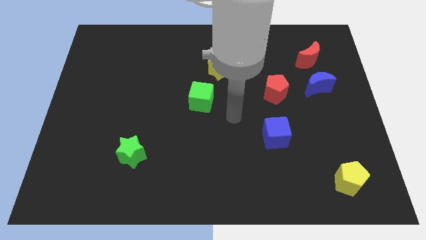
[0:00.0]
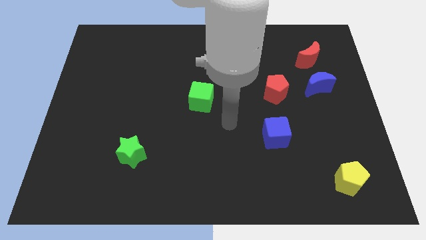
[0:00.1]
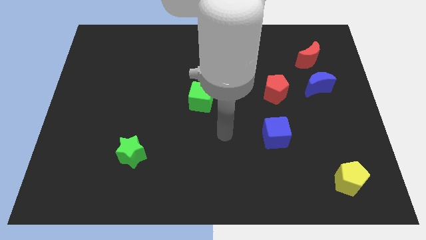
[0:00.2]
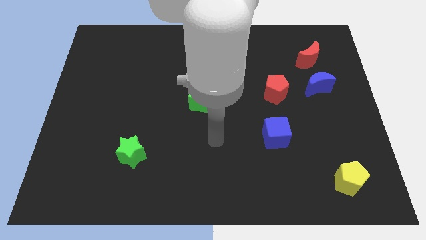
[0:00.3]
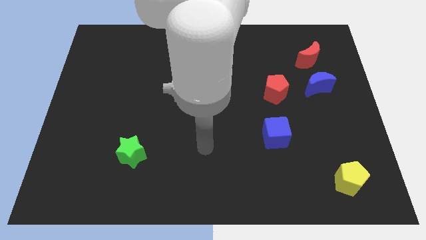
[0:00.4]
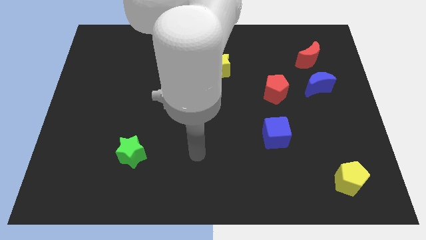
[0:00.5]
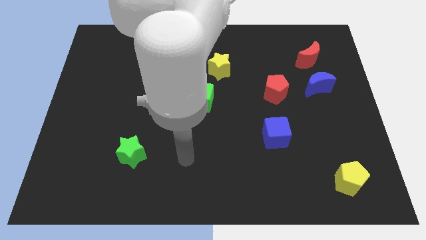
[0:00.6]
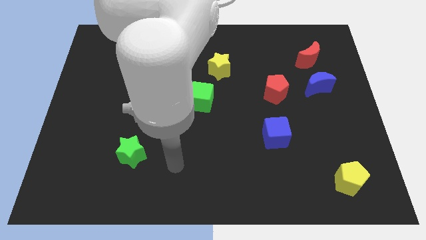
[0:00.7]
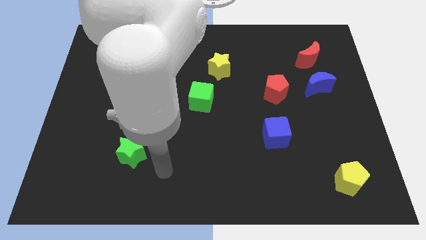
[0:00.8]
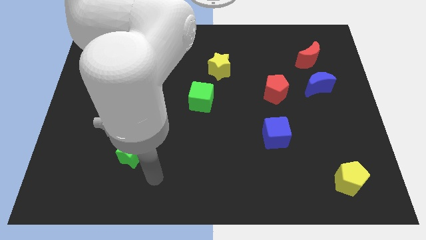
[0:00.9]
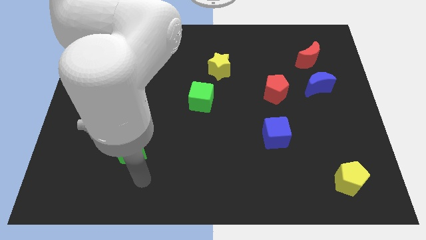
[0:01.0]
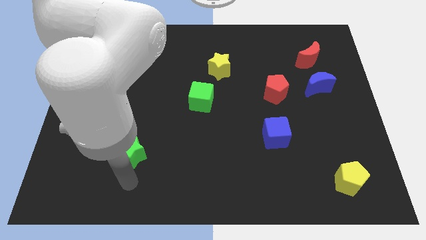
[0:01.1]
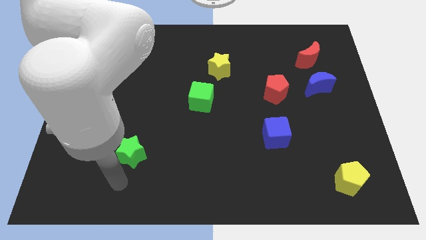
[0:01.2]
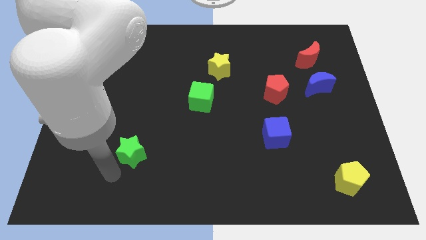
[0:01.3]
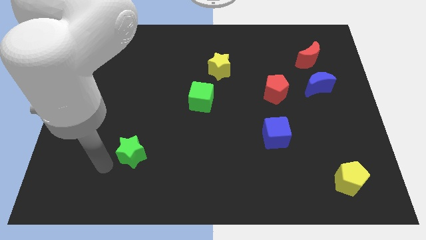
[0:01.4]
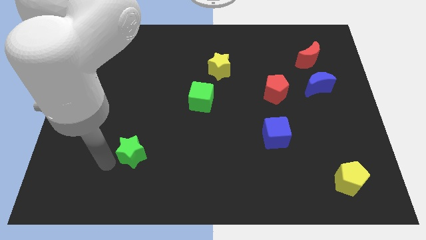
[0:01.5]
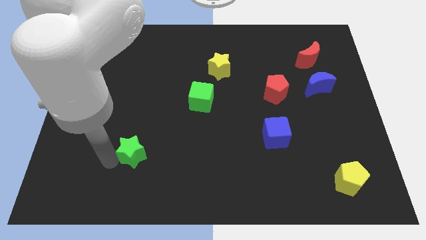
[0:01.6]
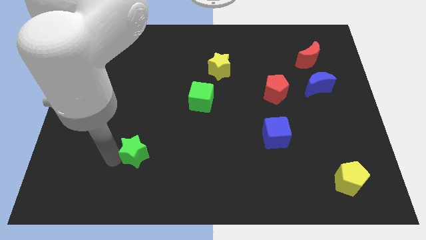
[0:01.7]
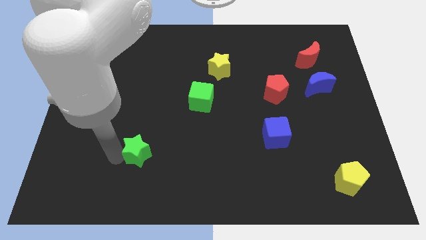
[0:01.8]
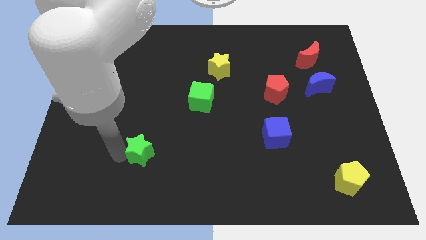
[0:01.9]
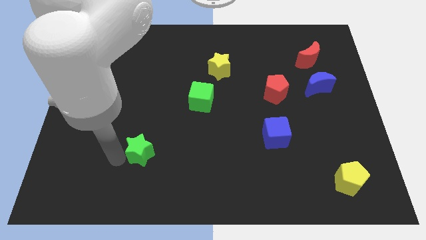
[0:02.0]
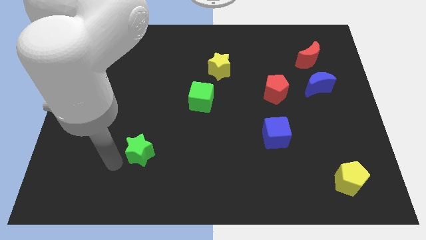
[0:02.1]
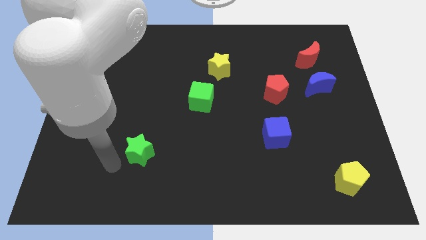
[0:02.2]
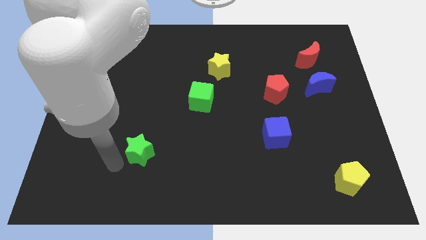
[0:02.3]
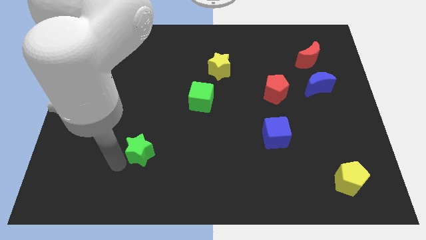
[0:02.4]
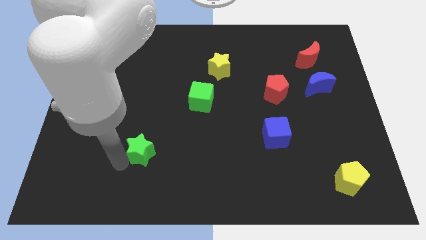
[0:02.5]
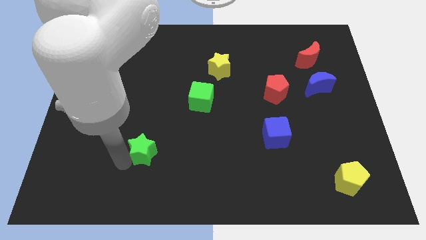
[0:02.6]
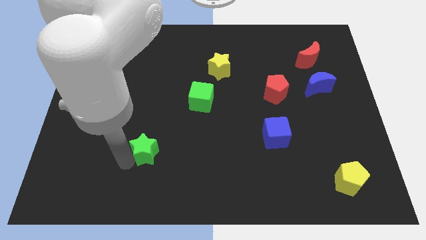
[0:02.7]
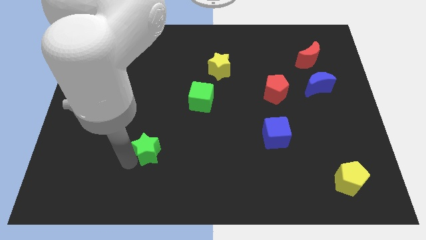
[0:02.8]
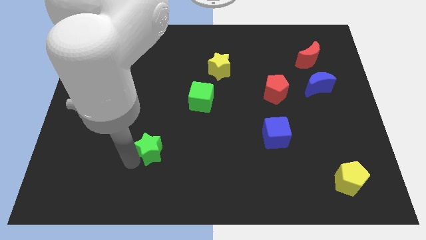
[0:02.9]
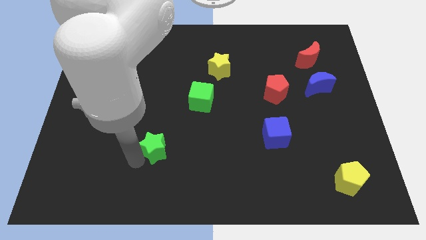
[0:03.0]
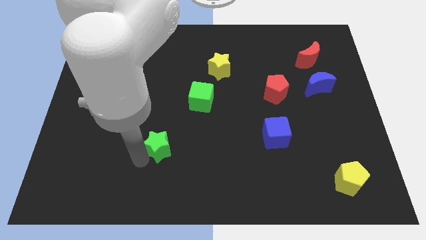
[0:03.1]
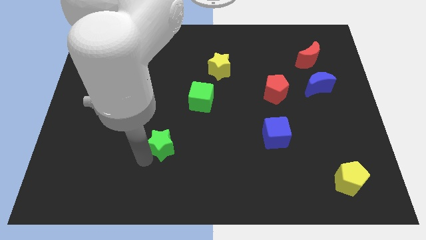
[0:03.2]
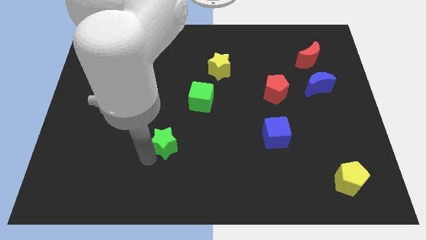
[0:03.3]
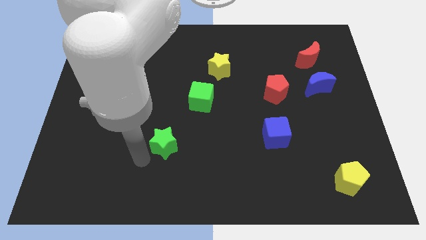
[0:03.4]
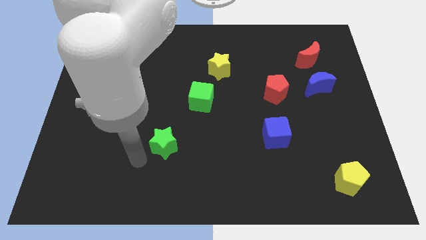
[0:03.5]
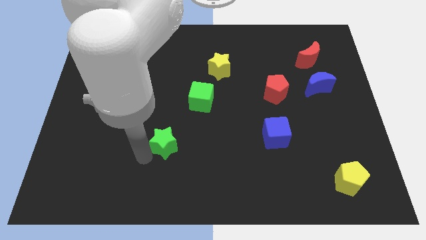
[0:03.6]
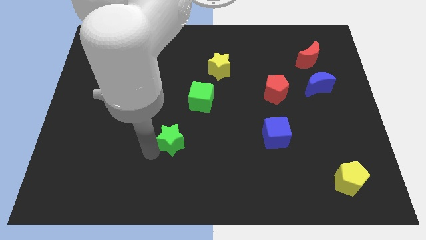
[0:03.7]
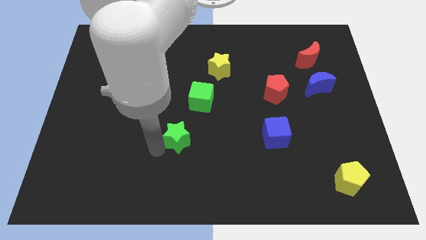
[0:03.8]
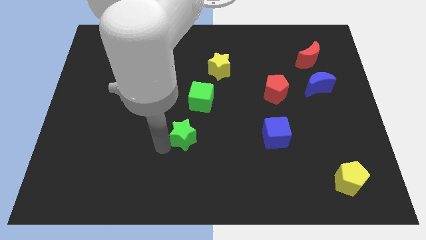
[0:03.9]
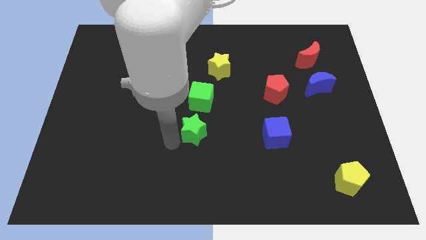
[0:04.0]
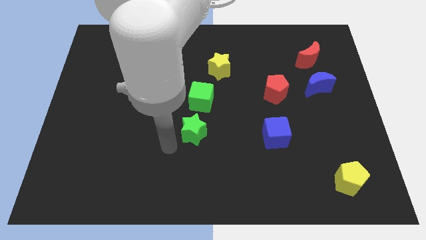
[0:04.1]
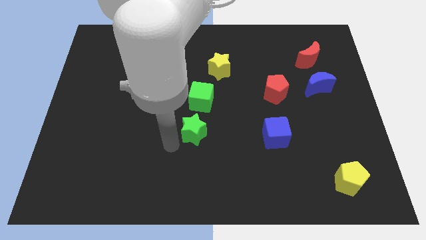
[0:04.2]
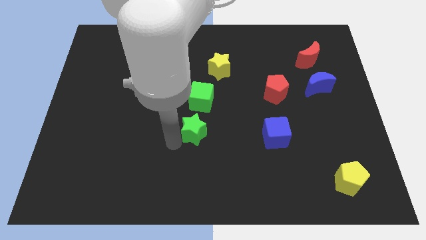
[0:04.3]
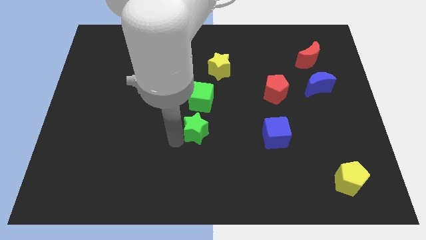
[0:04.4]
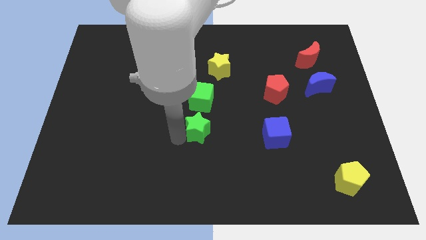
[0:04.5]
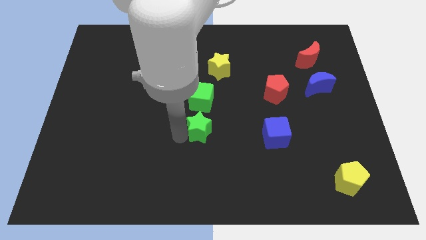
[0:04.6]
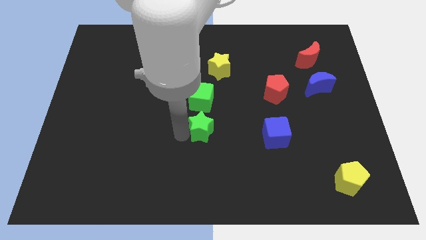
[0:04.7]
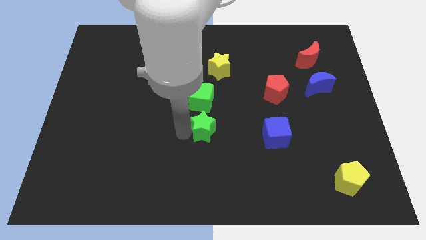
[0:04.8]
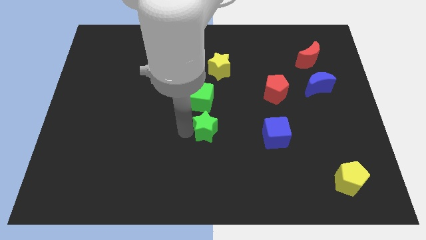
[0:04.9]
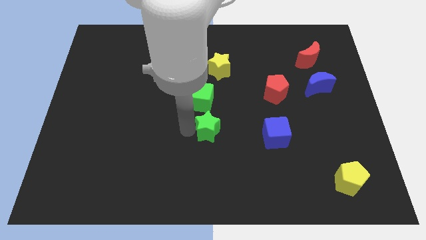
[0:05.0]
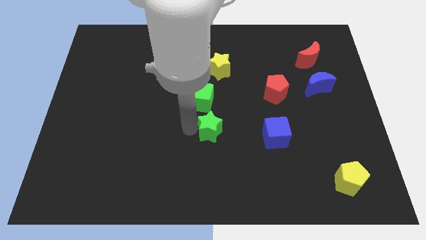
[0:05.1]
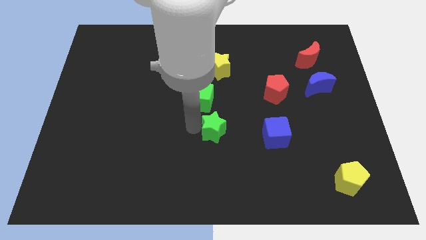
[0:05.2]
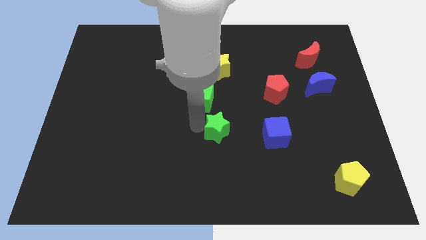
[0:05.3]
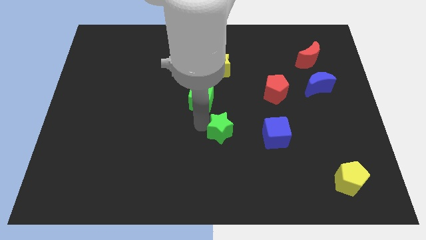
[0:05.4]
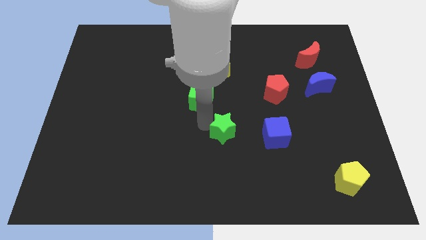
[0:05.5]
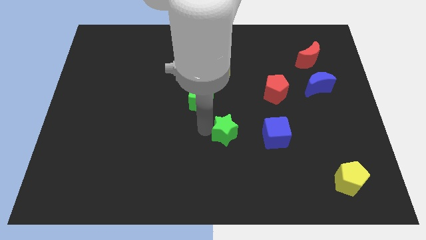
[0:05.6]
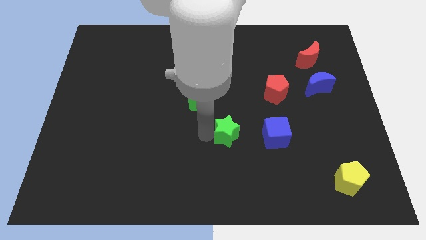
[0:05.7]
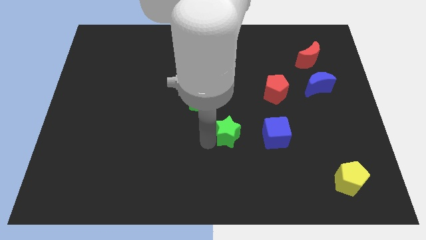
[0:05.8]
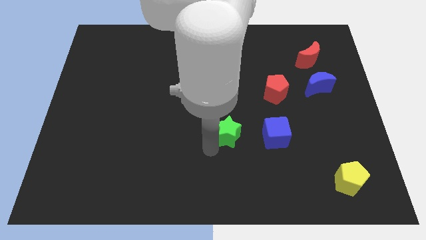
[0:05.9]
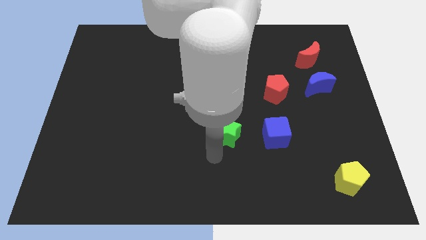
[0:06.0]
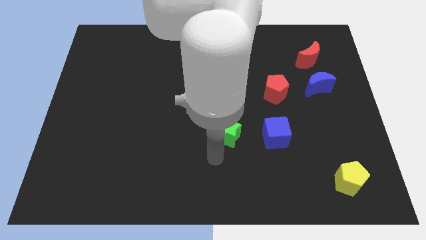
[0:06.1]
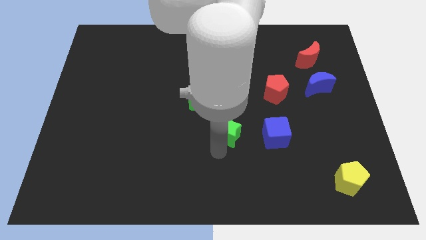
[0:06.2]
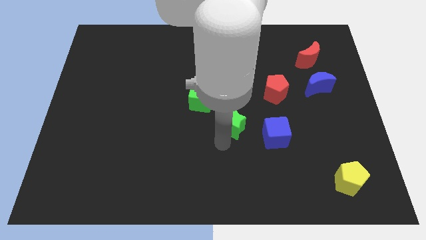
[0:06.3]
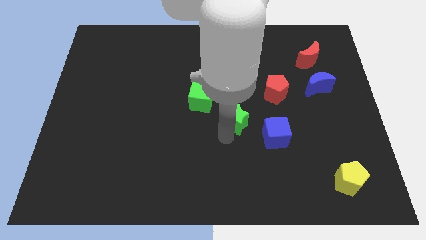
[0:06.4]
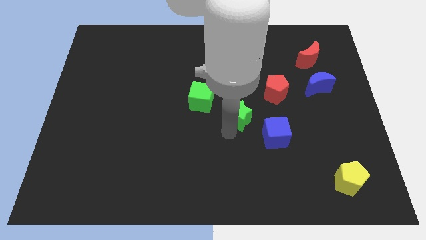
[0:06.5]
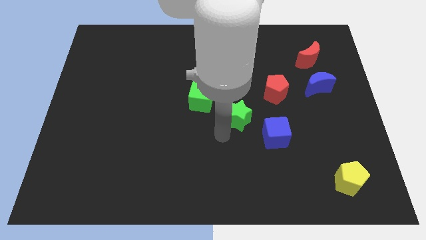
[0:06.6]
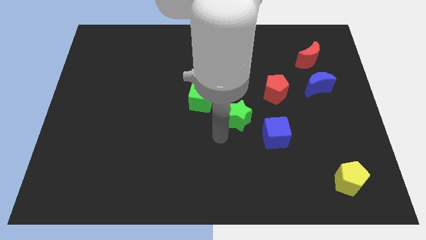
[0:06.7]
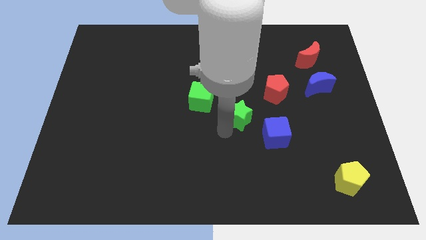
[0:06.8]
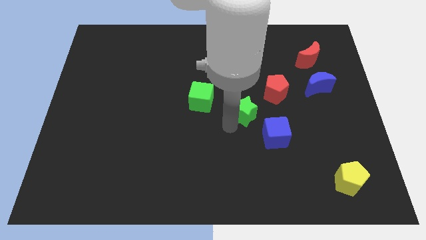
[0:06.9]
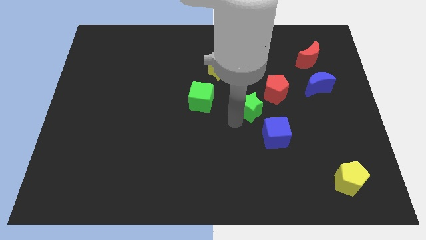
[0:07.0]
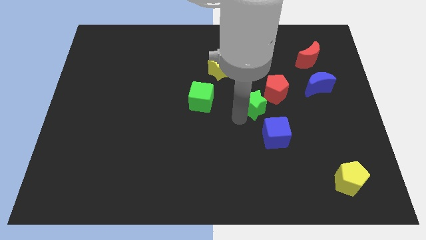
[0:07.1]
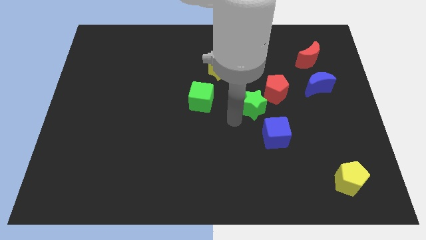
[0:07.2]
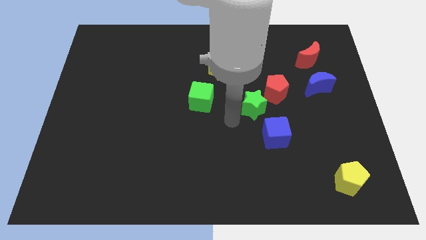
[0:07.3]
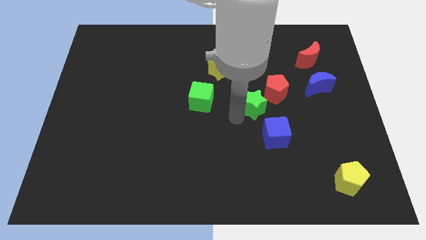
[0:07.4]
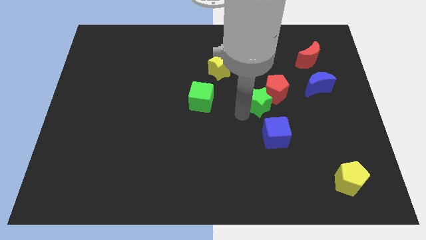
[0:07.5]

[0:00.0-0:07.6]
move the green star to the red pentagon

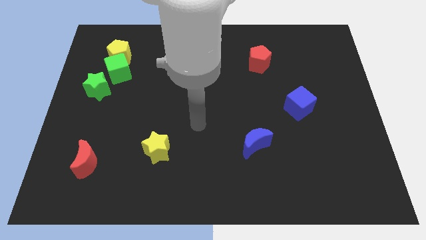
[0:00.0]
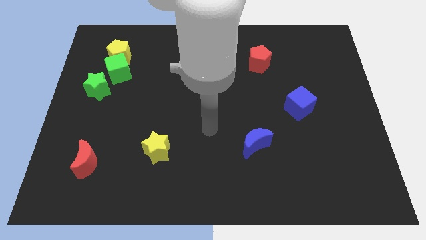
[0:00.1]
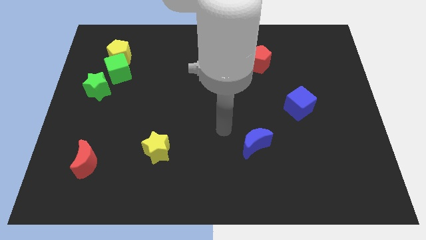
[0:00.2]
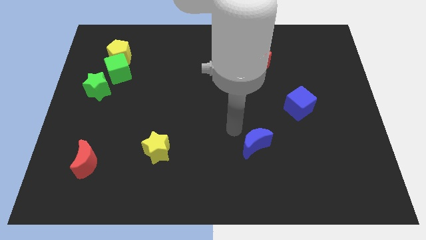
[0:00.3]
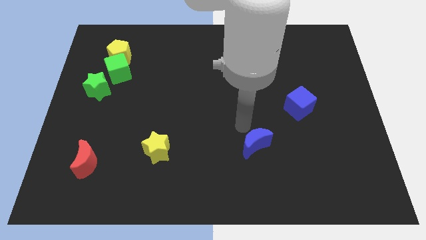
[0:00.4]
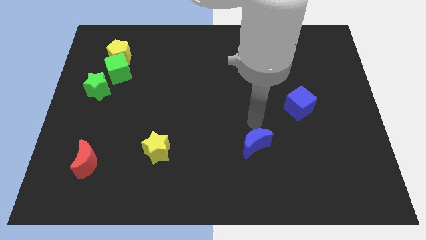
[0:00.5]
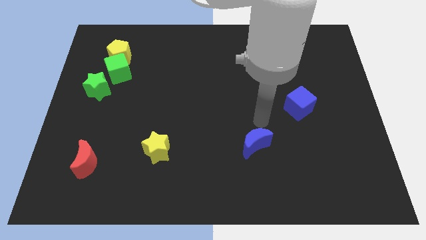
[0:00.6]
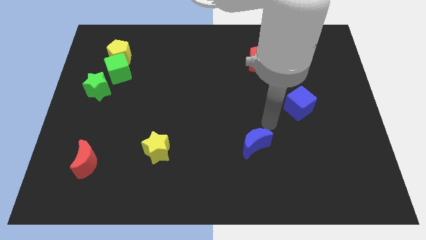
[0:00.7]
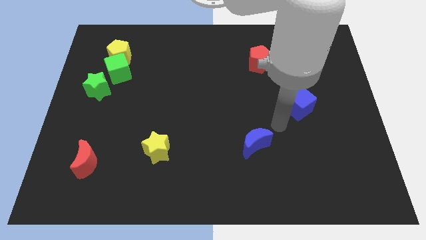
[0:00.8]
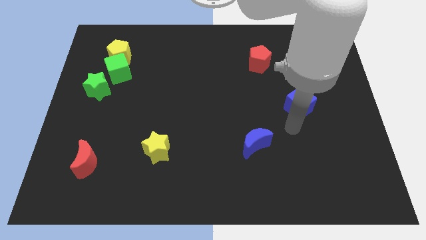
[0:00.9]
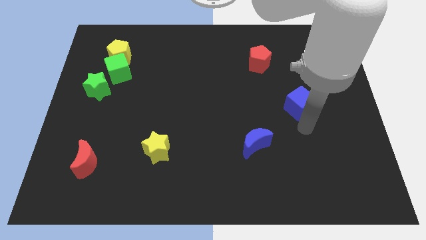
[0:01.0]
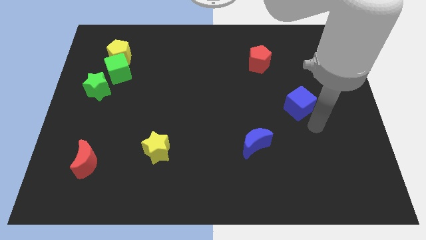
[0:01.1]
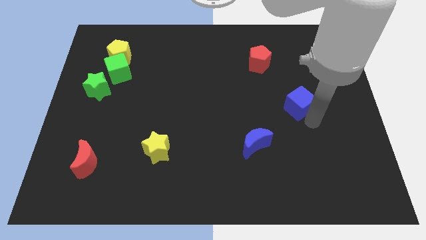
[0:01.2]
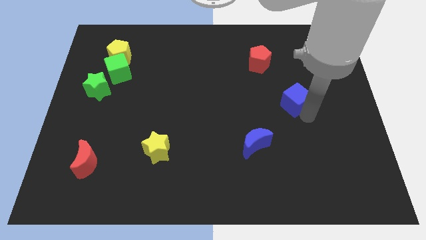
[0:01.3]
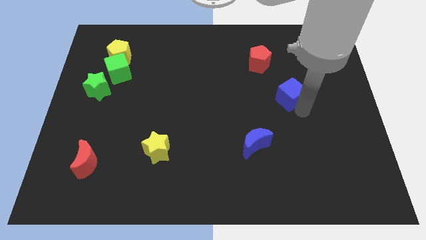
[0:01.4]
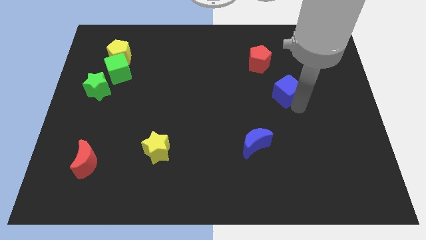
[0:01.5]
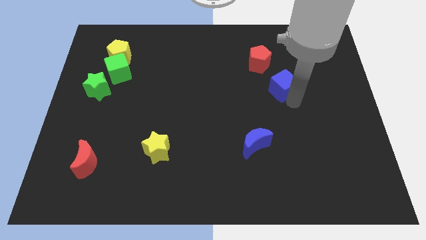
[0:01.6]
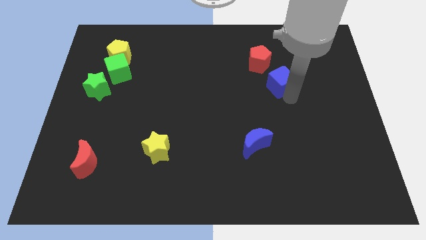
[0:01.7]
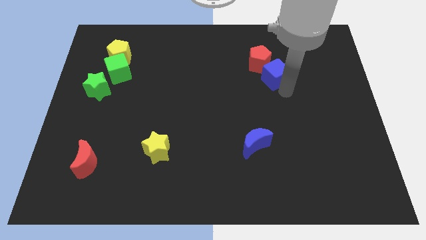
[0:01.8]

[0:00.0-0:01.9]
push the blue cube to the red pentagon
